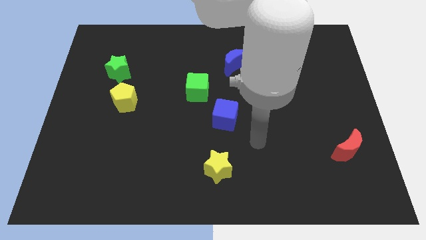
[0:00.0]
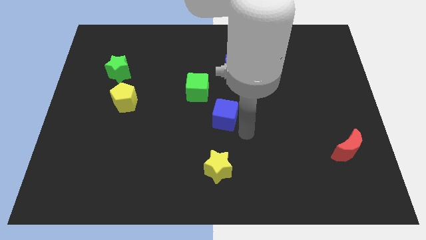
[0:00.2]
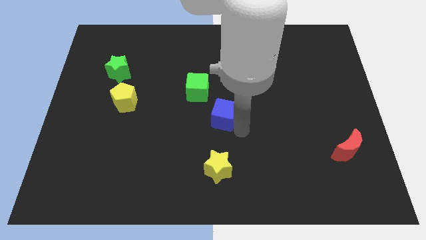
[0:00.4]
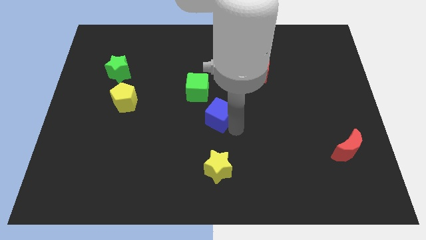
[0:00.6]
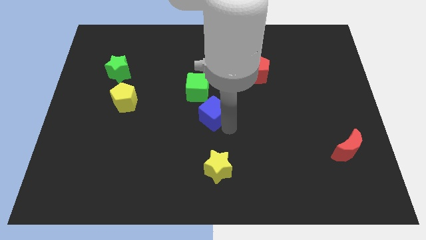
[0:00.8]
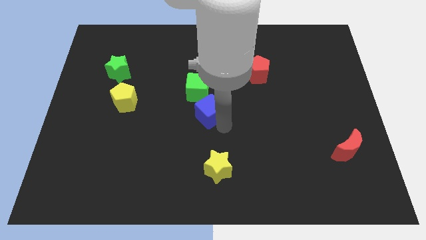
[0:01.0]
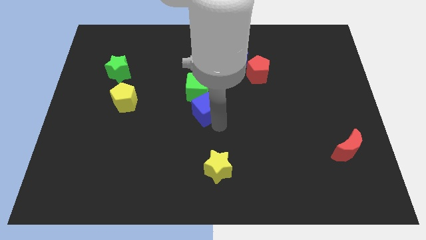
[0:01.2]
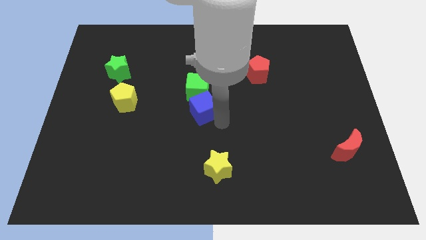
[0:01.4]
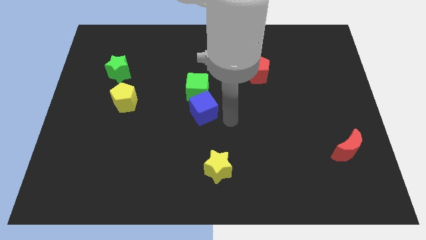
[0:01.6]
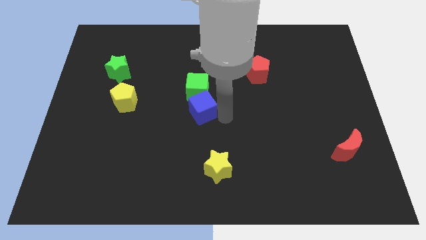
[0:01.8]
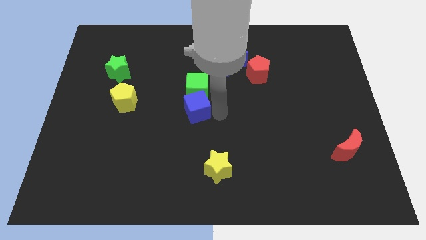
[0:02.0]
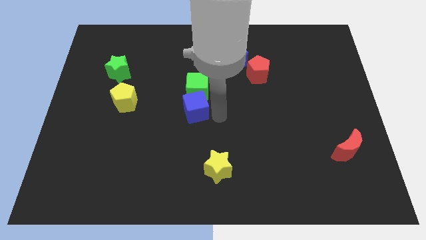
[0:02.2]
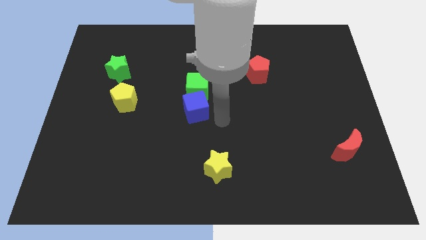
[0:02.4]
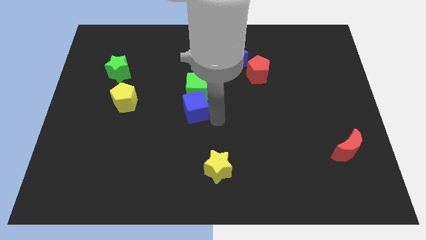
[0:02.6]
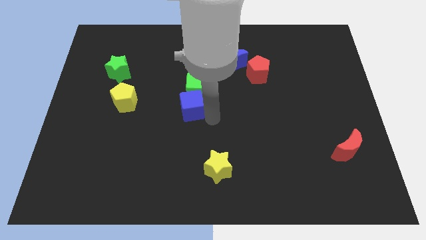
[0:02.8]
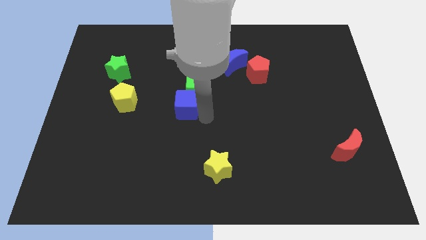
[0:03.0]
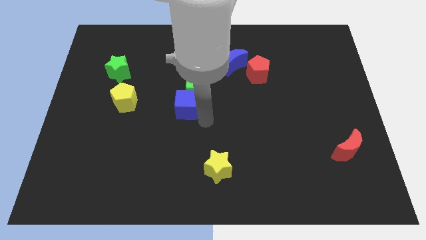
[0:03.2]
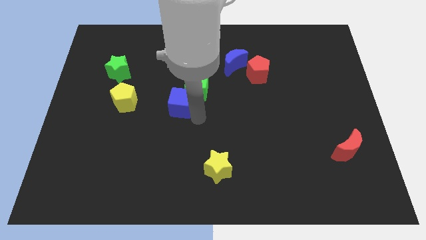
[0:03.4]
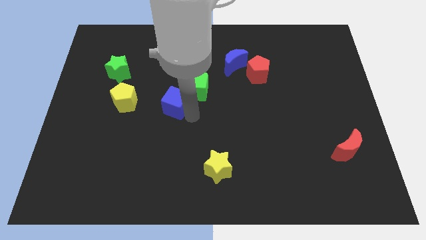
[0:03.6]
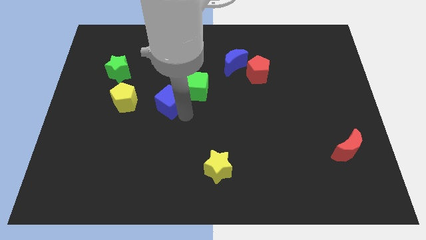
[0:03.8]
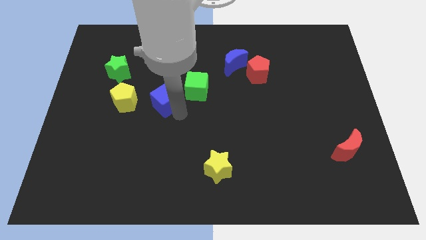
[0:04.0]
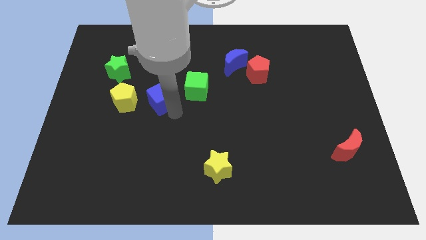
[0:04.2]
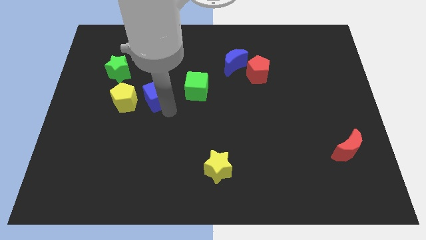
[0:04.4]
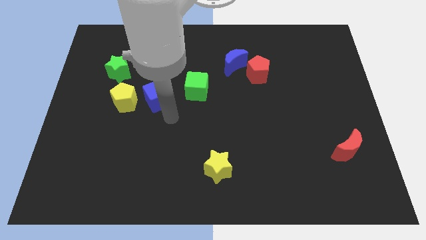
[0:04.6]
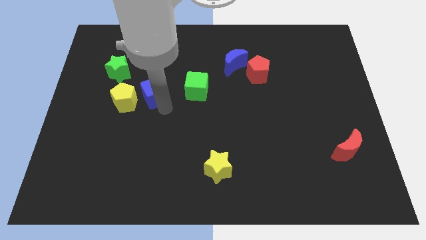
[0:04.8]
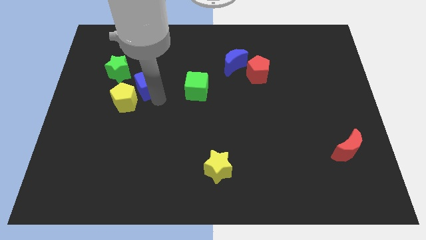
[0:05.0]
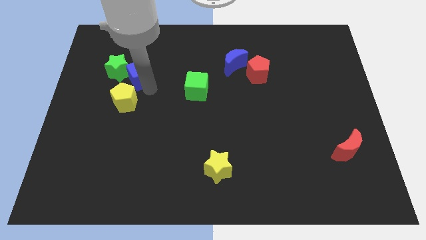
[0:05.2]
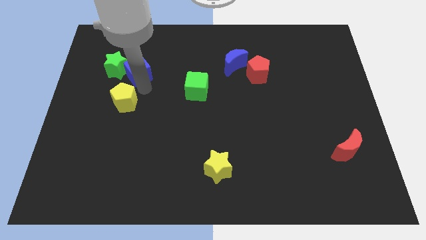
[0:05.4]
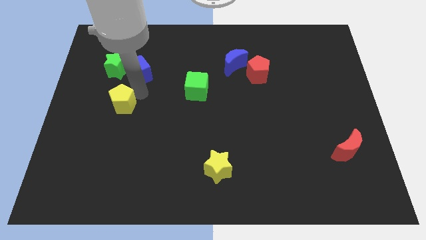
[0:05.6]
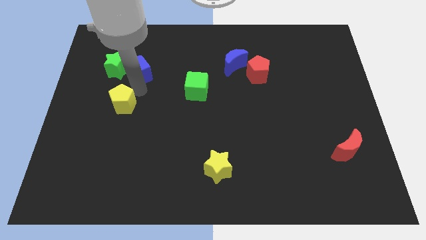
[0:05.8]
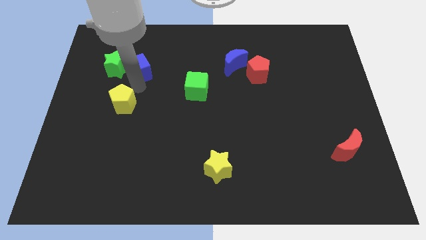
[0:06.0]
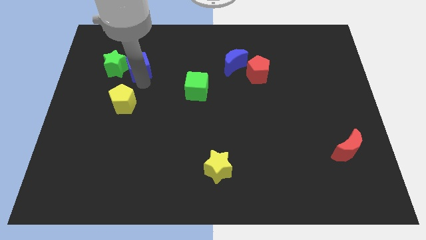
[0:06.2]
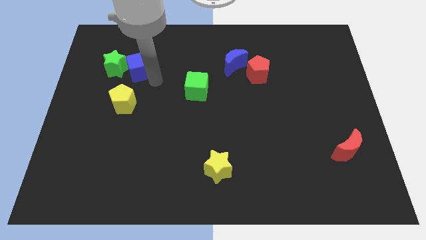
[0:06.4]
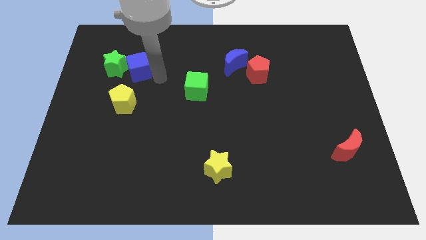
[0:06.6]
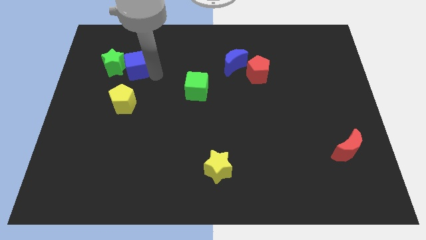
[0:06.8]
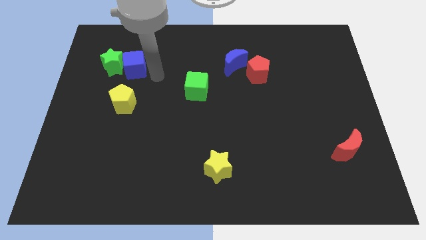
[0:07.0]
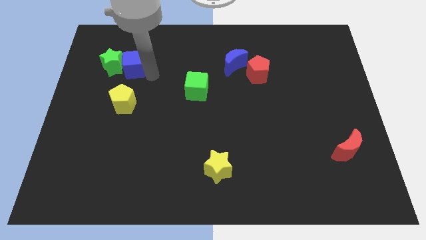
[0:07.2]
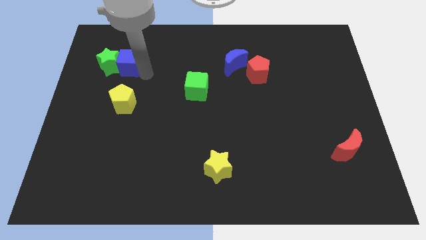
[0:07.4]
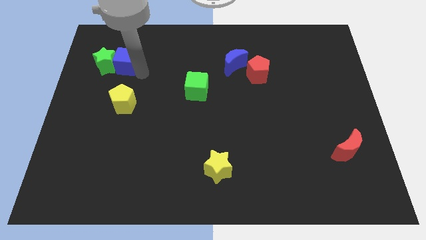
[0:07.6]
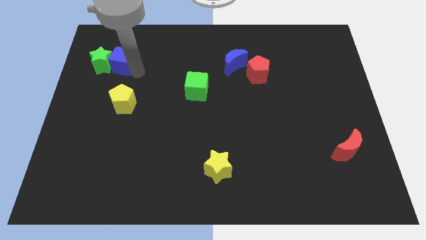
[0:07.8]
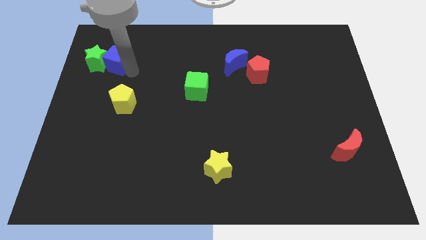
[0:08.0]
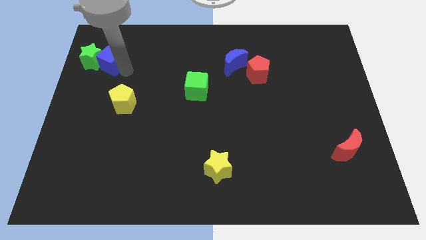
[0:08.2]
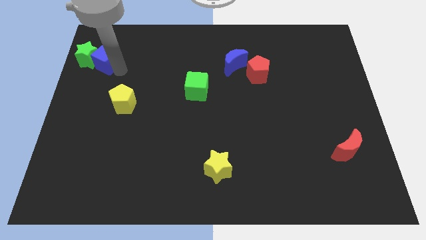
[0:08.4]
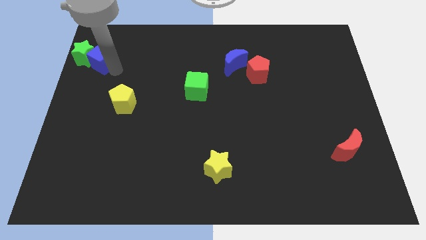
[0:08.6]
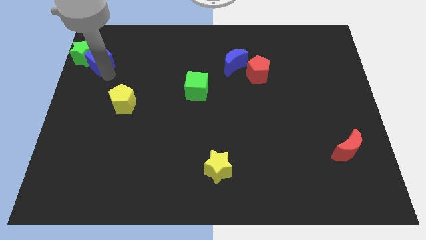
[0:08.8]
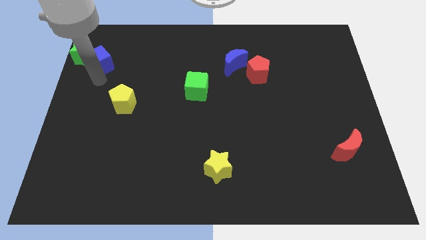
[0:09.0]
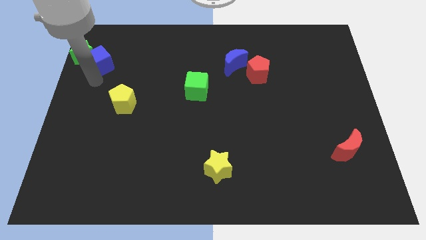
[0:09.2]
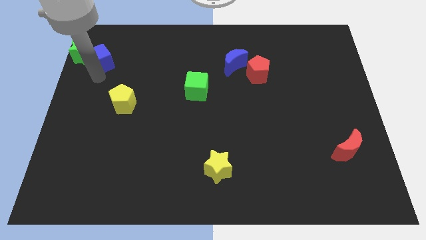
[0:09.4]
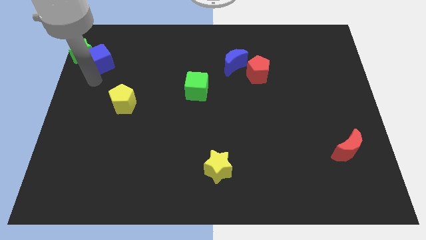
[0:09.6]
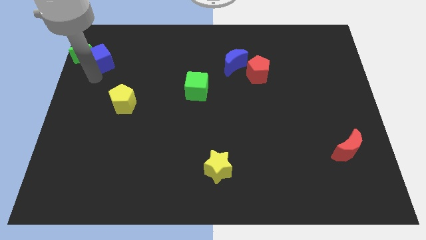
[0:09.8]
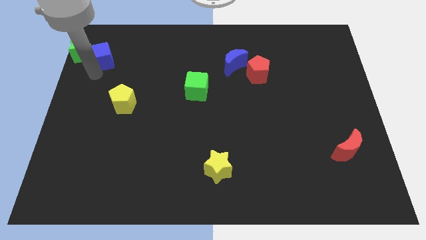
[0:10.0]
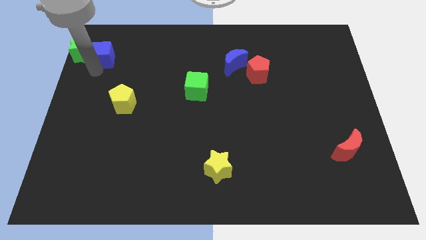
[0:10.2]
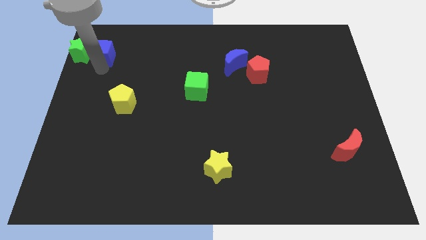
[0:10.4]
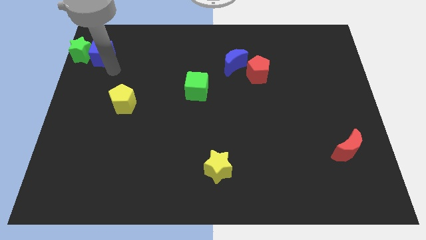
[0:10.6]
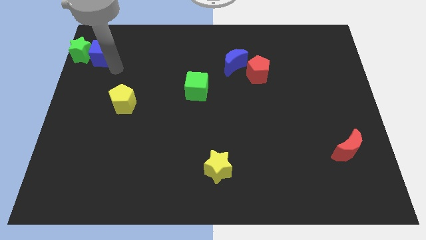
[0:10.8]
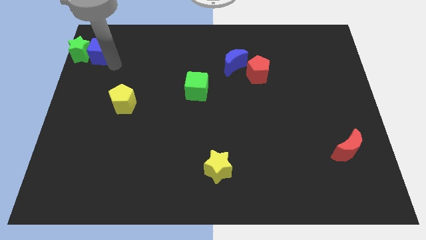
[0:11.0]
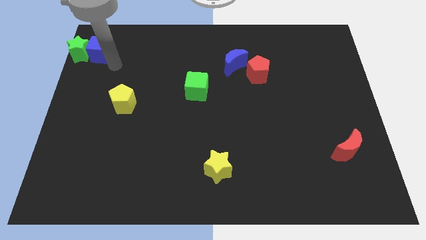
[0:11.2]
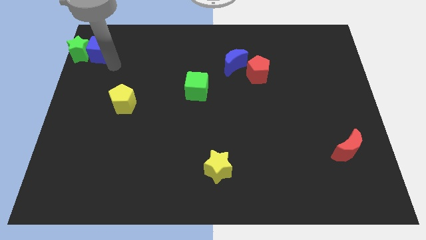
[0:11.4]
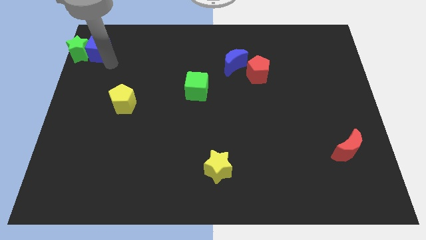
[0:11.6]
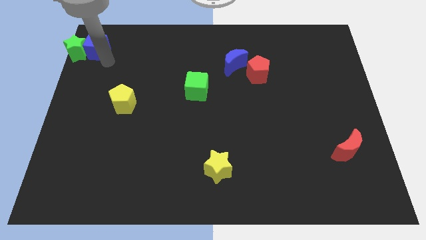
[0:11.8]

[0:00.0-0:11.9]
push the blue cube to the upper left corner
